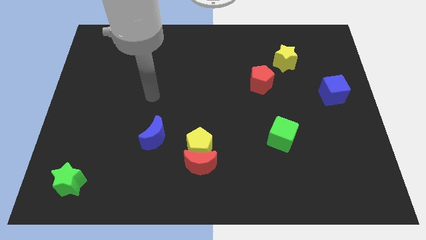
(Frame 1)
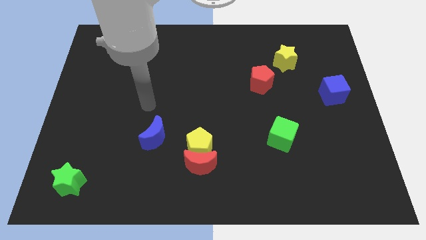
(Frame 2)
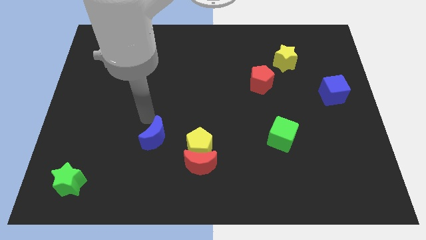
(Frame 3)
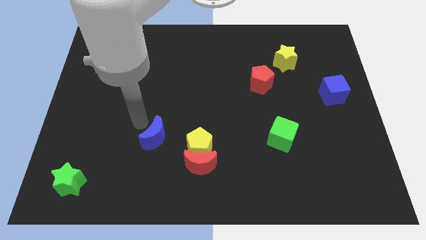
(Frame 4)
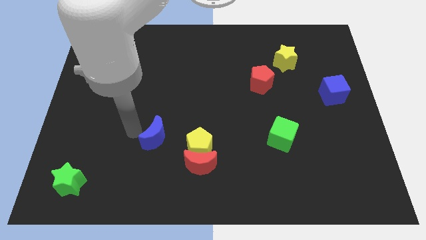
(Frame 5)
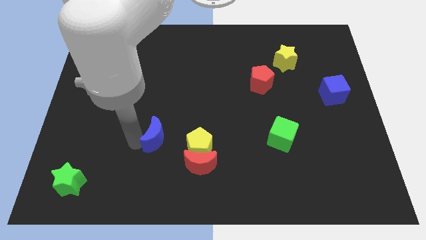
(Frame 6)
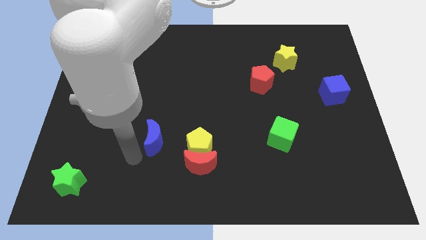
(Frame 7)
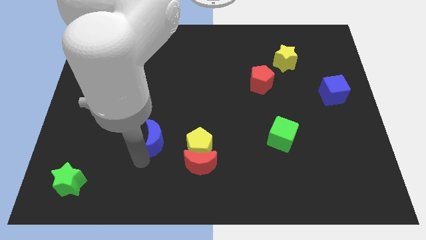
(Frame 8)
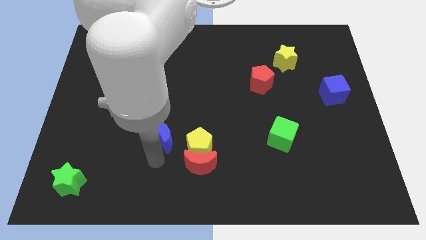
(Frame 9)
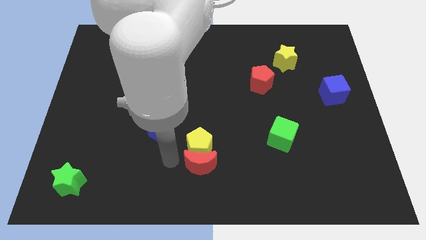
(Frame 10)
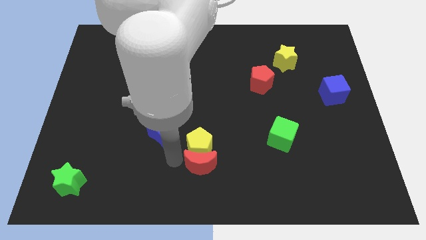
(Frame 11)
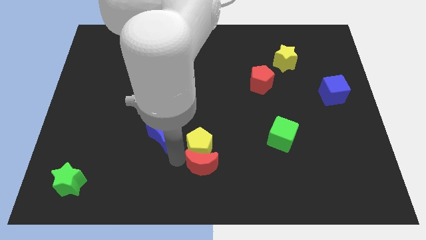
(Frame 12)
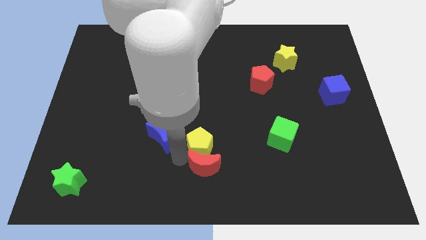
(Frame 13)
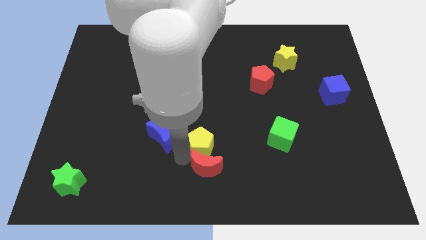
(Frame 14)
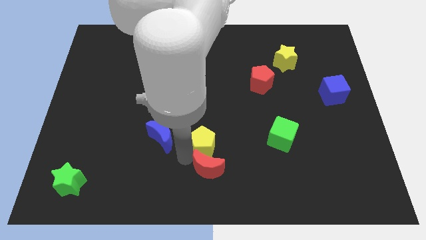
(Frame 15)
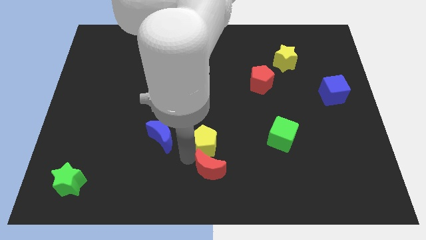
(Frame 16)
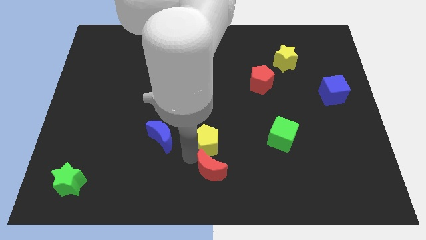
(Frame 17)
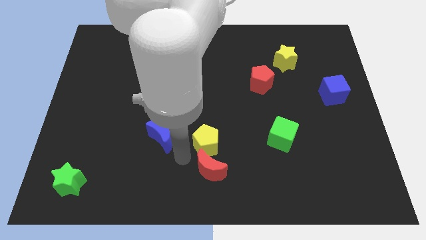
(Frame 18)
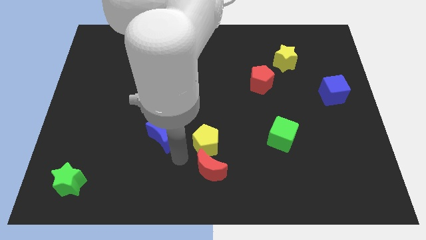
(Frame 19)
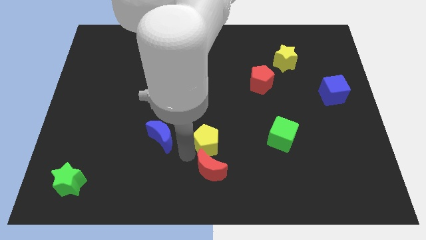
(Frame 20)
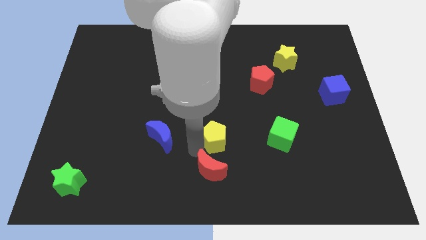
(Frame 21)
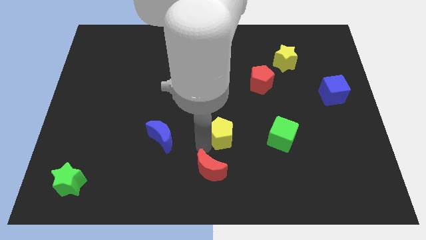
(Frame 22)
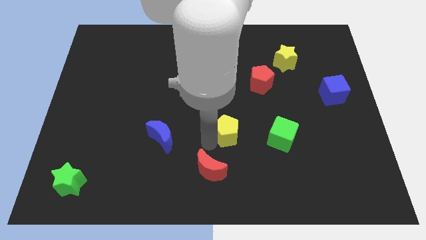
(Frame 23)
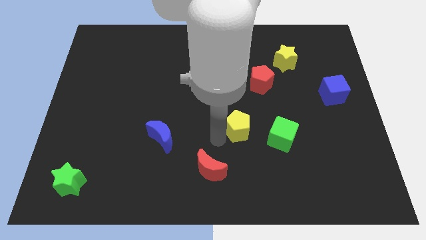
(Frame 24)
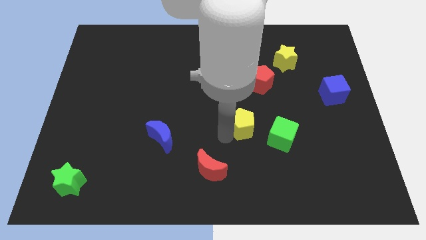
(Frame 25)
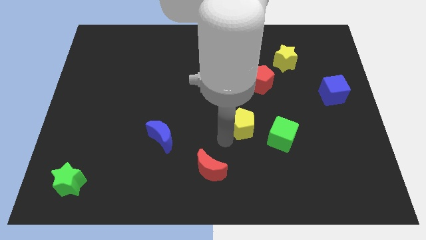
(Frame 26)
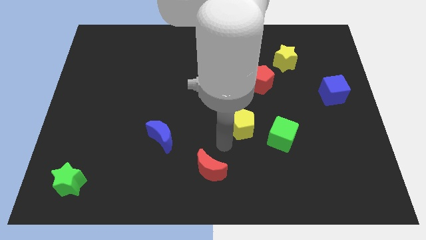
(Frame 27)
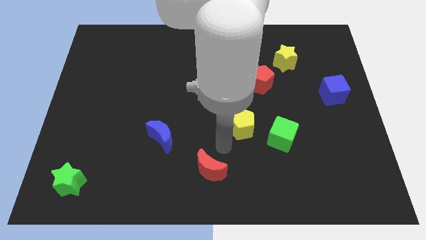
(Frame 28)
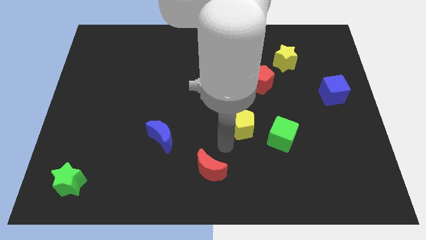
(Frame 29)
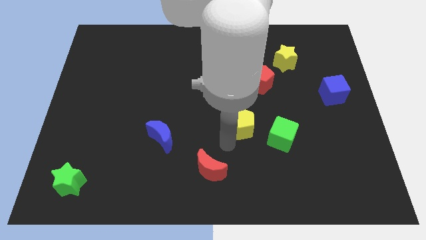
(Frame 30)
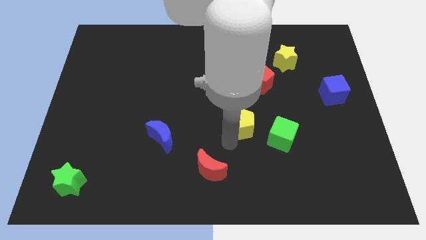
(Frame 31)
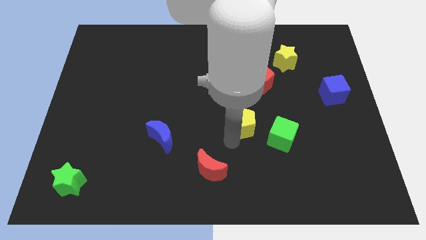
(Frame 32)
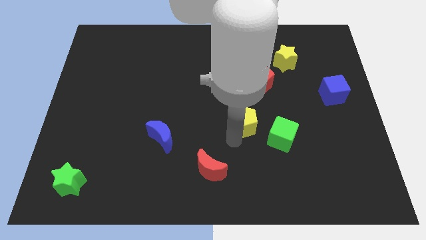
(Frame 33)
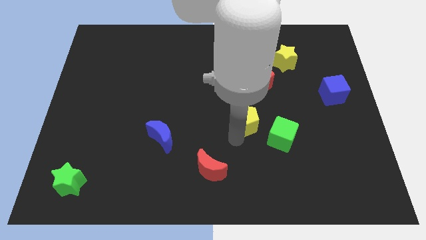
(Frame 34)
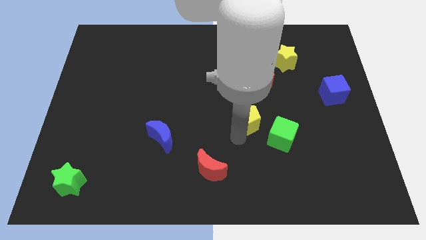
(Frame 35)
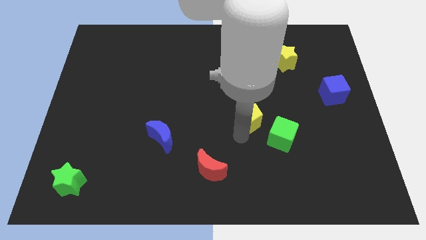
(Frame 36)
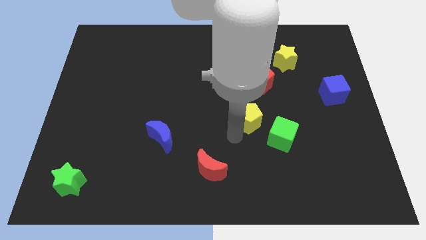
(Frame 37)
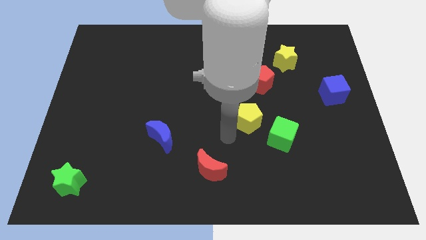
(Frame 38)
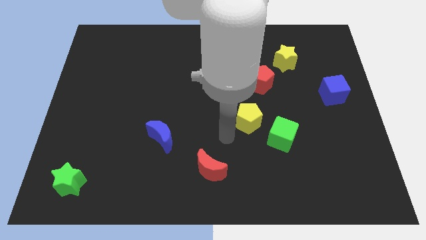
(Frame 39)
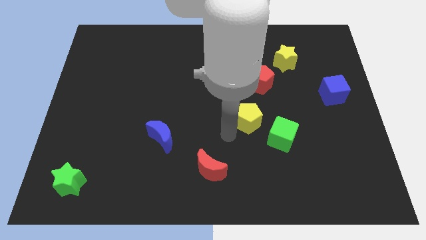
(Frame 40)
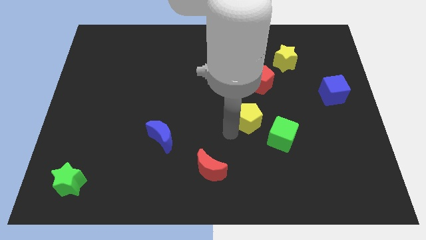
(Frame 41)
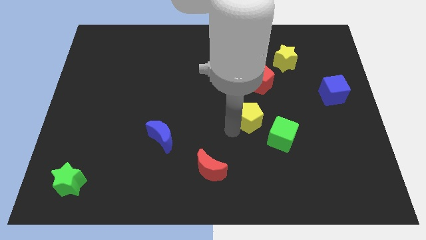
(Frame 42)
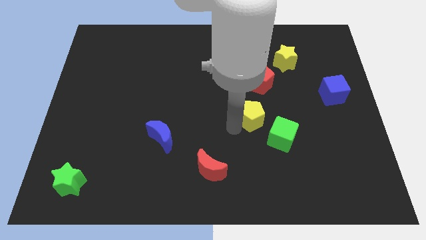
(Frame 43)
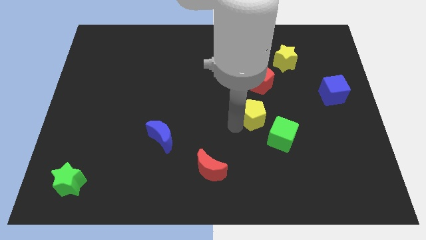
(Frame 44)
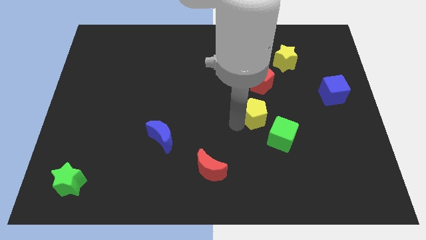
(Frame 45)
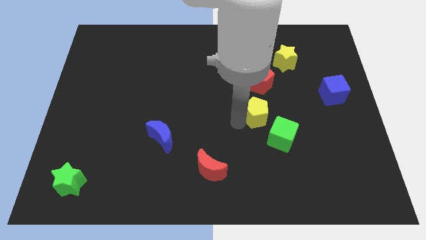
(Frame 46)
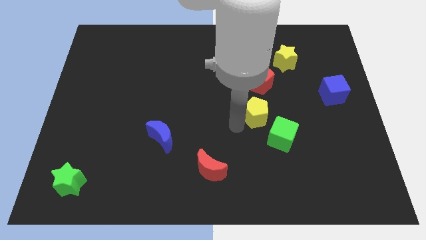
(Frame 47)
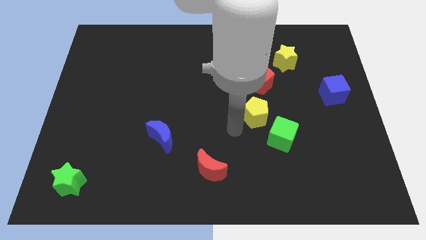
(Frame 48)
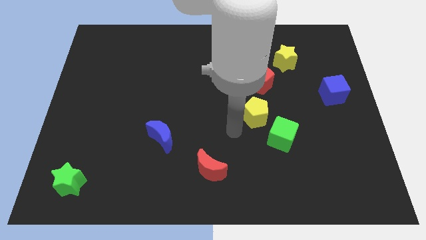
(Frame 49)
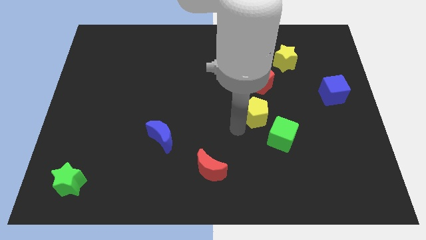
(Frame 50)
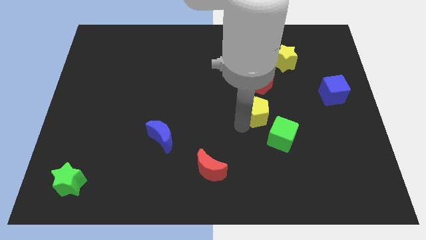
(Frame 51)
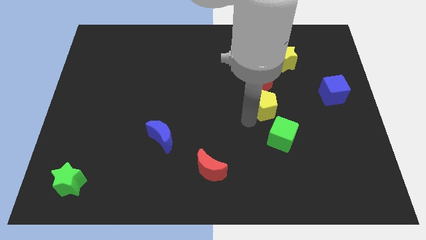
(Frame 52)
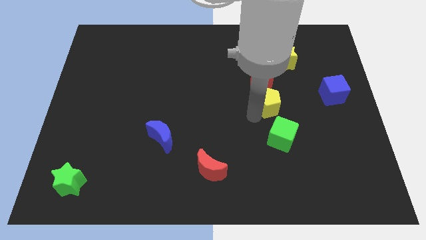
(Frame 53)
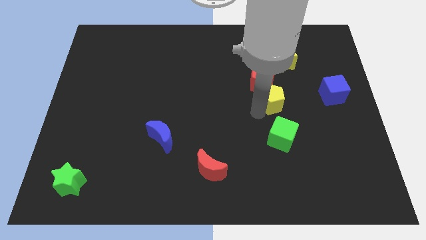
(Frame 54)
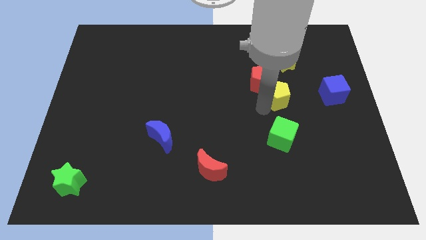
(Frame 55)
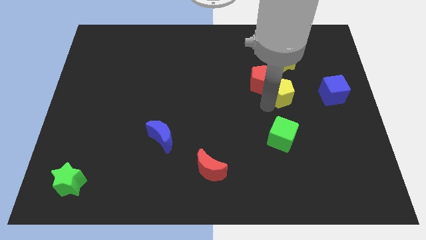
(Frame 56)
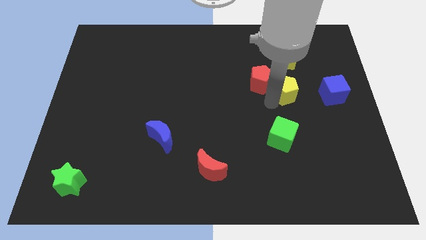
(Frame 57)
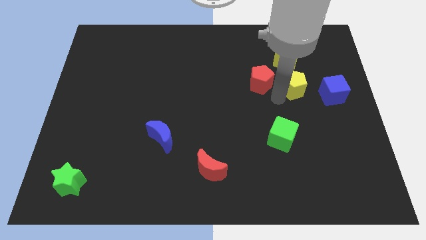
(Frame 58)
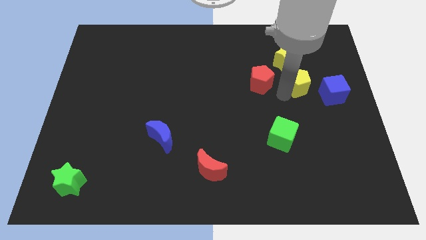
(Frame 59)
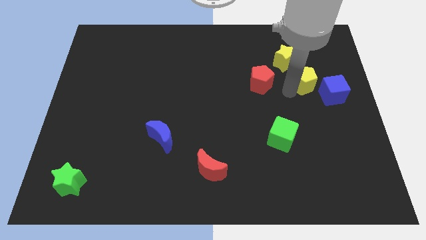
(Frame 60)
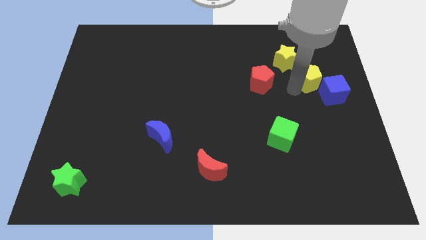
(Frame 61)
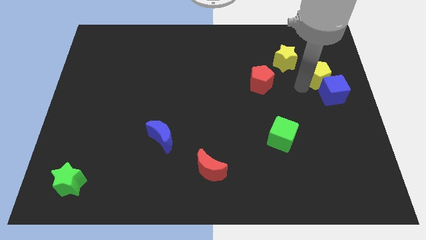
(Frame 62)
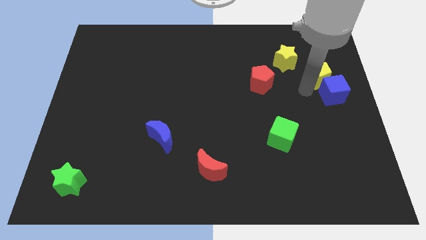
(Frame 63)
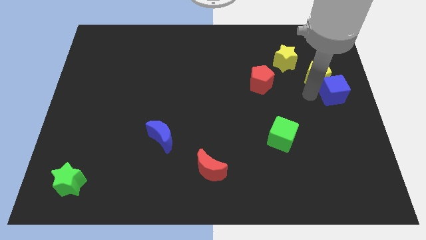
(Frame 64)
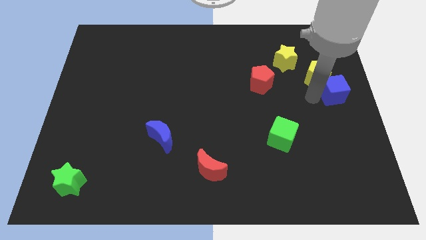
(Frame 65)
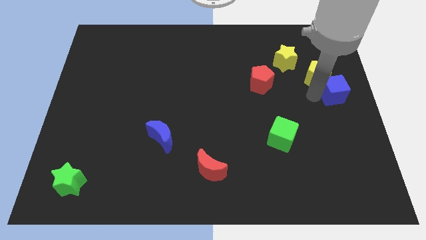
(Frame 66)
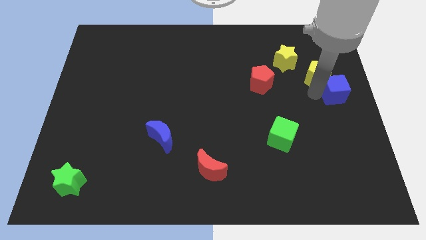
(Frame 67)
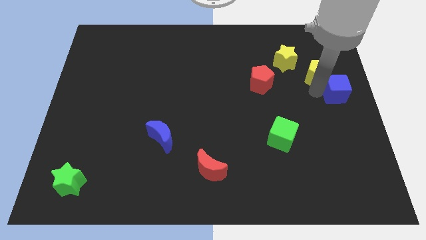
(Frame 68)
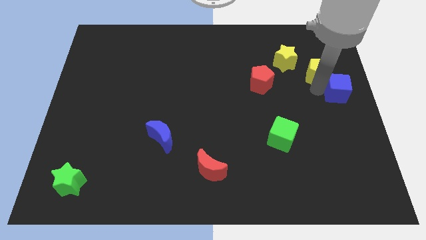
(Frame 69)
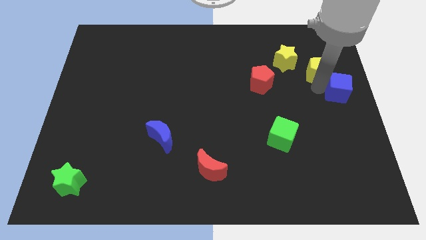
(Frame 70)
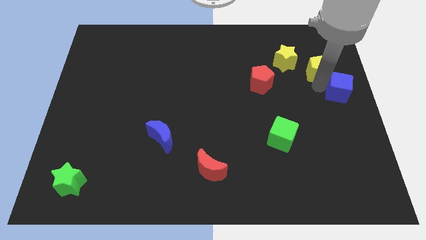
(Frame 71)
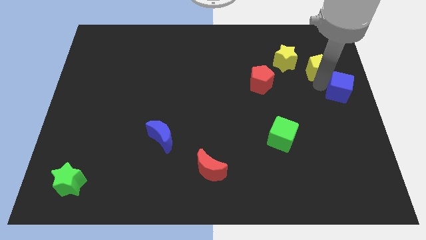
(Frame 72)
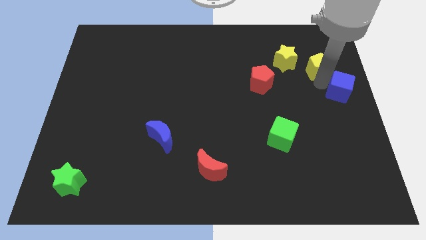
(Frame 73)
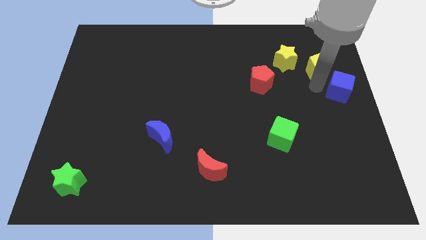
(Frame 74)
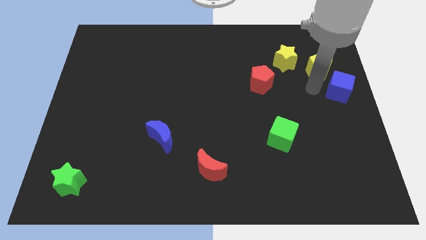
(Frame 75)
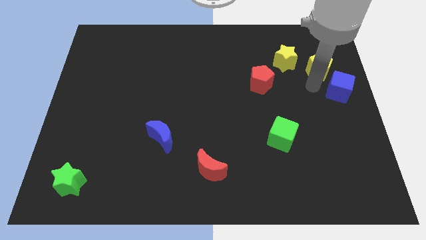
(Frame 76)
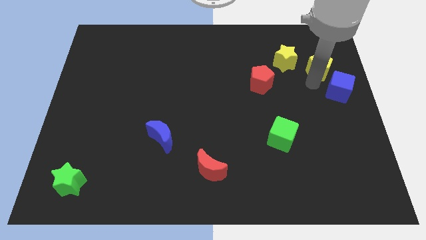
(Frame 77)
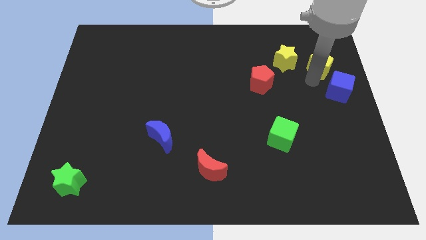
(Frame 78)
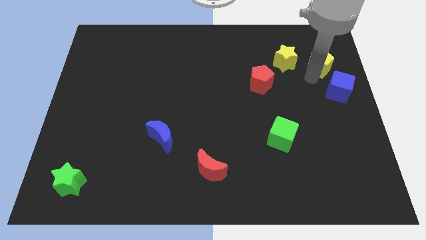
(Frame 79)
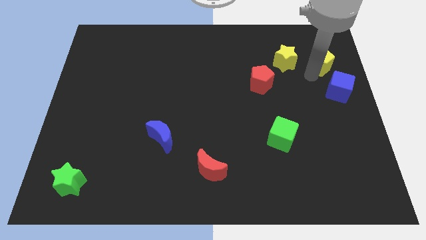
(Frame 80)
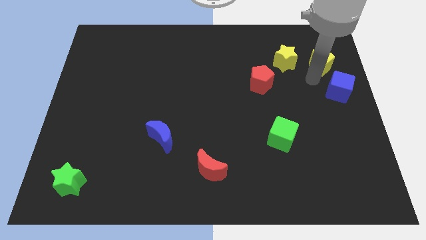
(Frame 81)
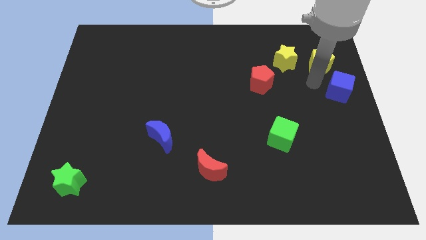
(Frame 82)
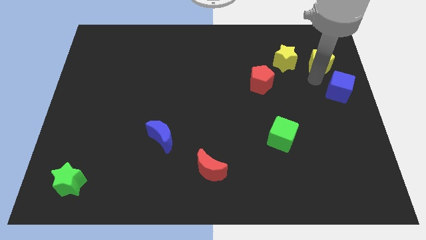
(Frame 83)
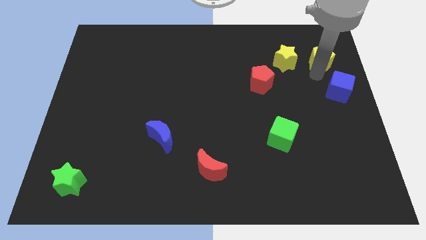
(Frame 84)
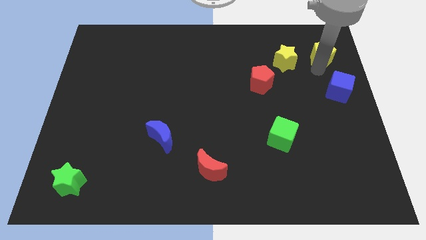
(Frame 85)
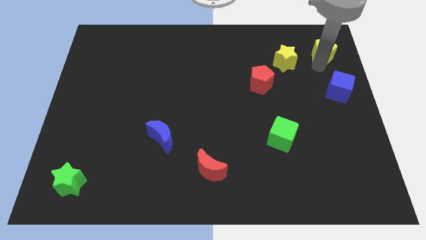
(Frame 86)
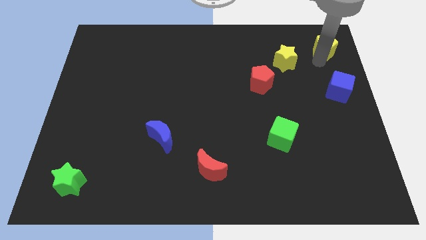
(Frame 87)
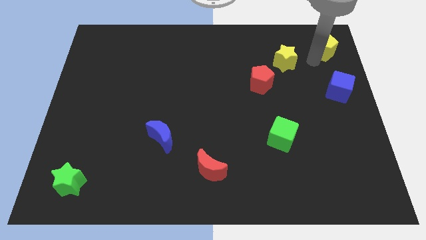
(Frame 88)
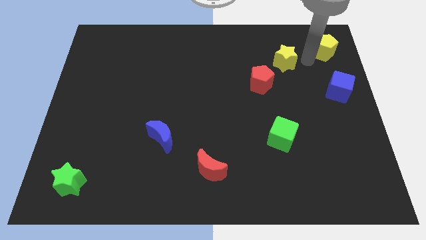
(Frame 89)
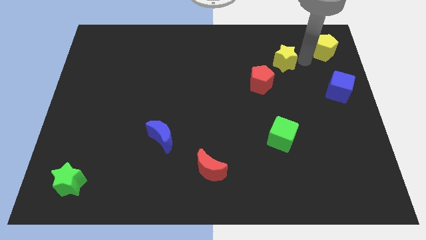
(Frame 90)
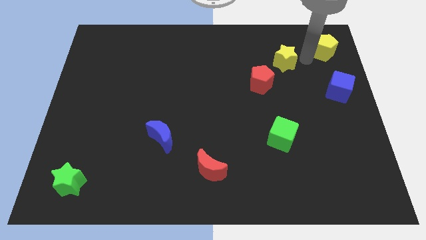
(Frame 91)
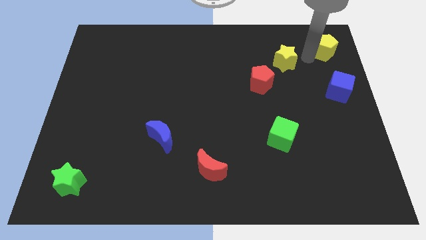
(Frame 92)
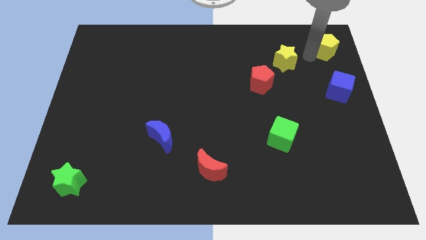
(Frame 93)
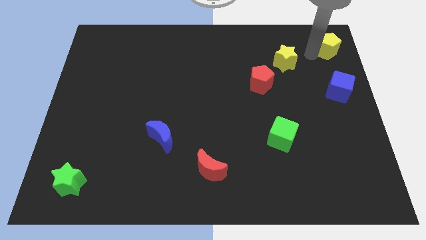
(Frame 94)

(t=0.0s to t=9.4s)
push the yellow pentagon to the top right corner
